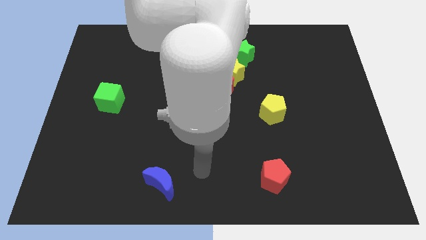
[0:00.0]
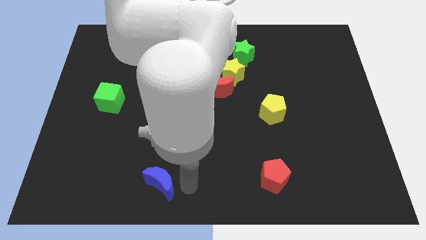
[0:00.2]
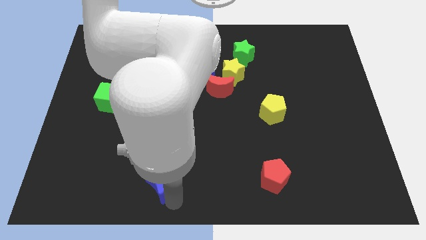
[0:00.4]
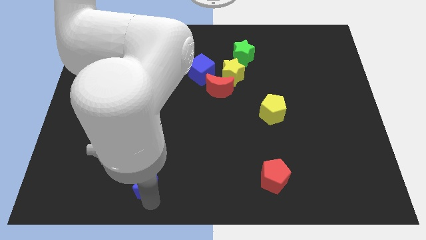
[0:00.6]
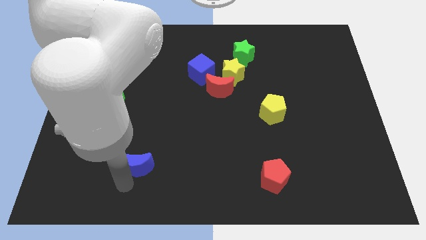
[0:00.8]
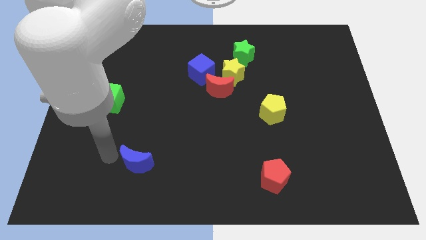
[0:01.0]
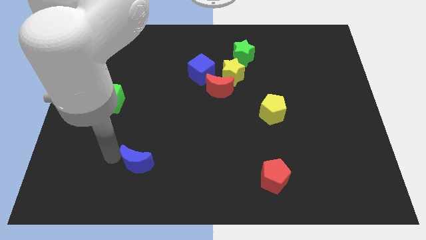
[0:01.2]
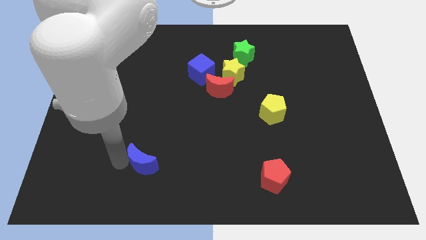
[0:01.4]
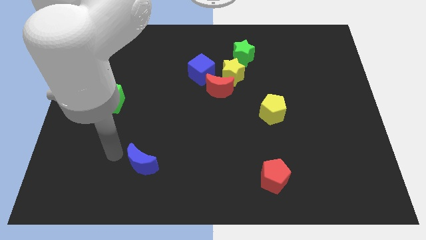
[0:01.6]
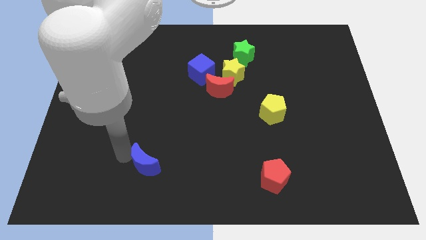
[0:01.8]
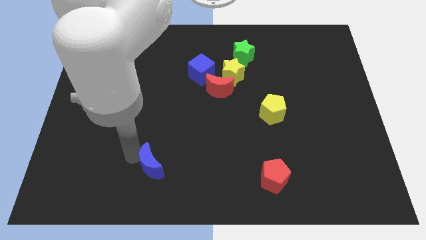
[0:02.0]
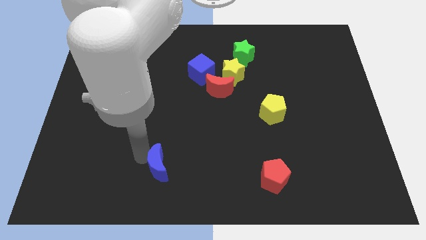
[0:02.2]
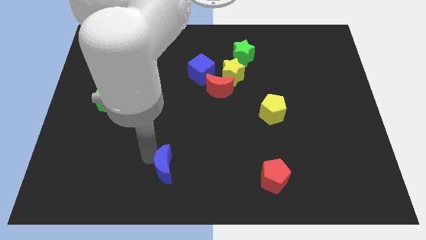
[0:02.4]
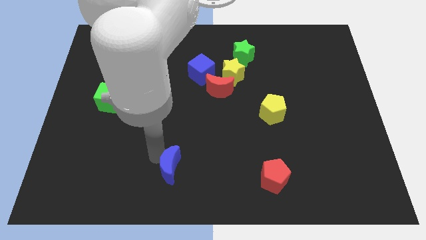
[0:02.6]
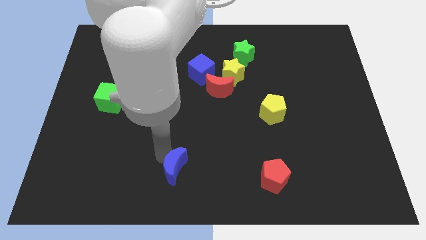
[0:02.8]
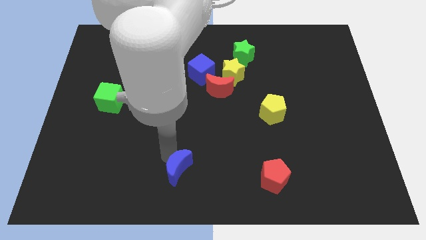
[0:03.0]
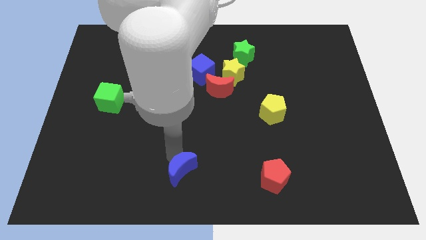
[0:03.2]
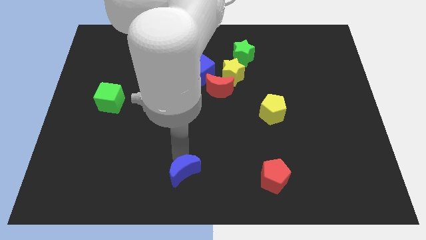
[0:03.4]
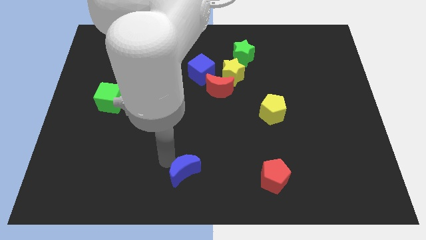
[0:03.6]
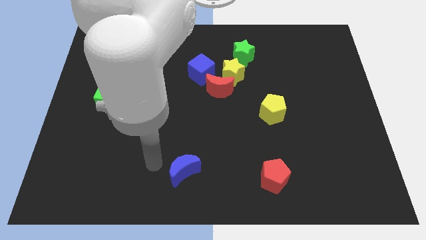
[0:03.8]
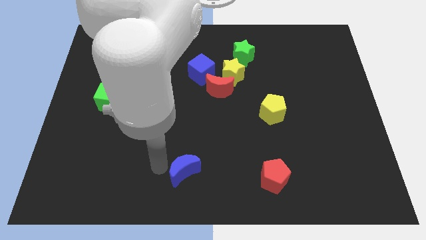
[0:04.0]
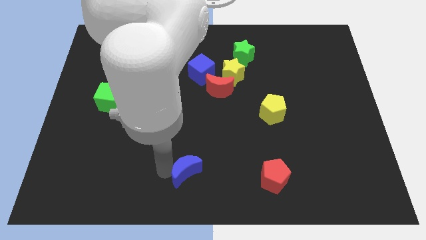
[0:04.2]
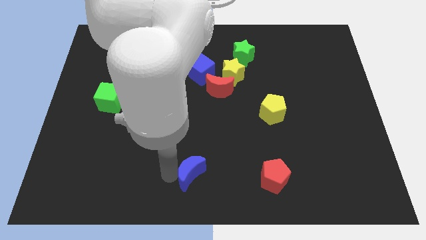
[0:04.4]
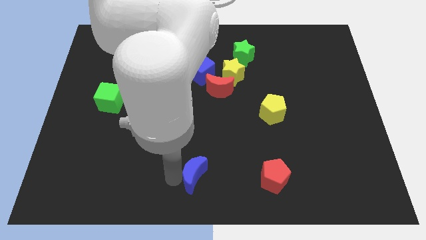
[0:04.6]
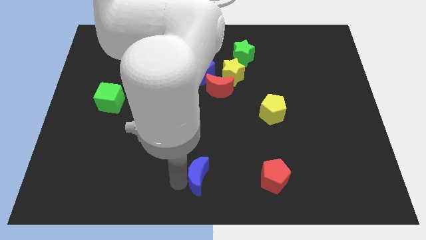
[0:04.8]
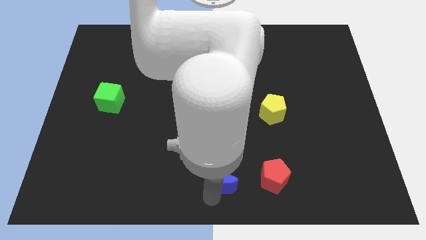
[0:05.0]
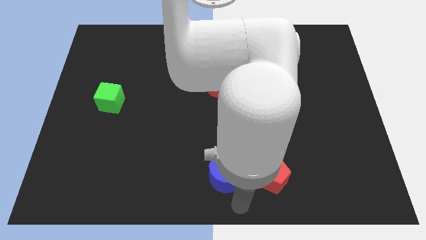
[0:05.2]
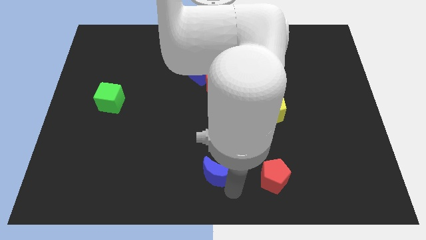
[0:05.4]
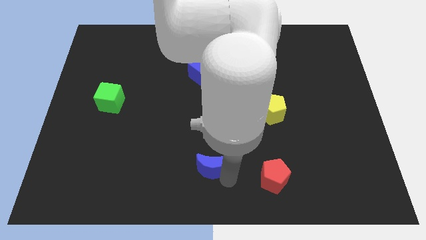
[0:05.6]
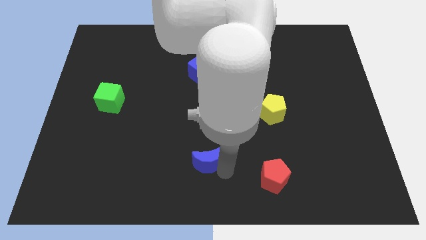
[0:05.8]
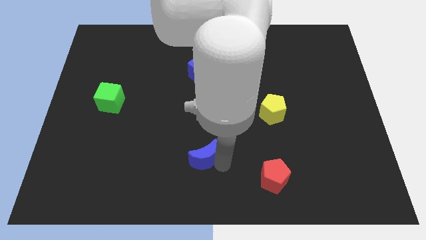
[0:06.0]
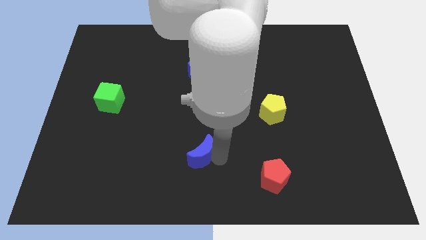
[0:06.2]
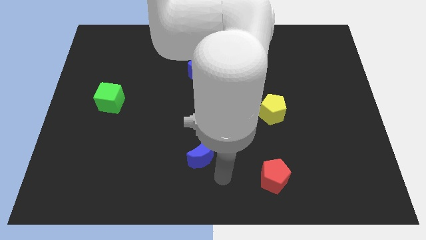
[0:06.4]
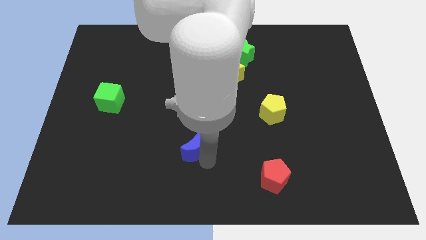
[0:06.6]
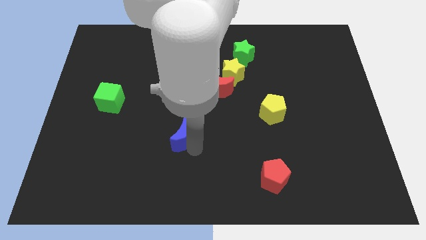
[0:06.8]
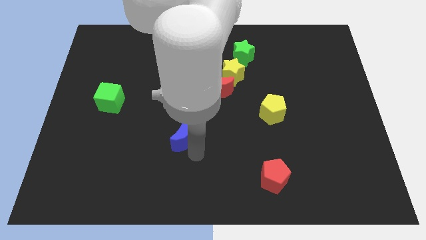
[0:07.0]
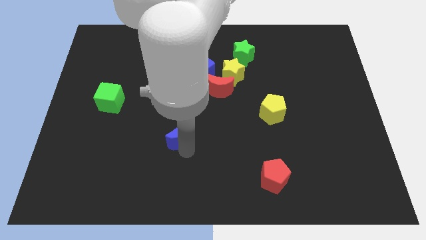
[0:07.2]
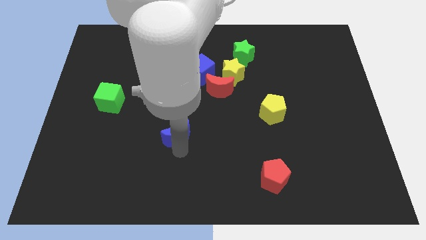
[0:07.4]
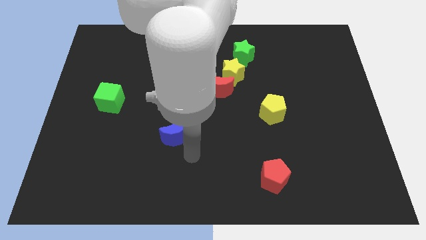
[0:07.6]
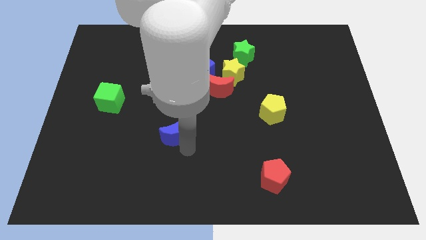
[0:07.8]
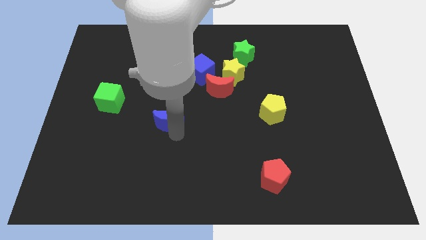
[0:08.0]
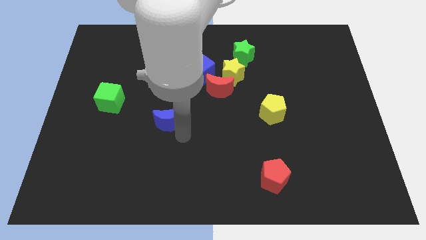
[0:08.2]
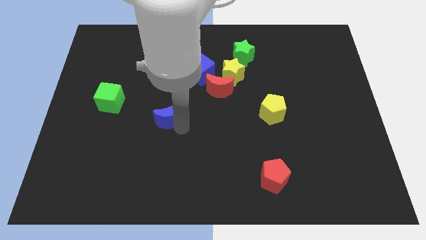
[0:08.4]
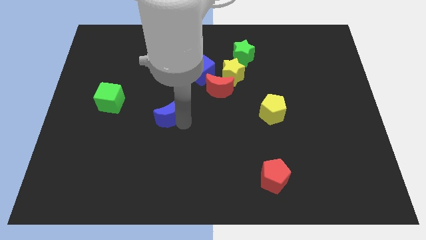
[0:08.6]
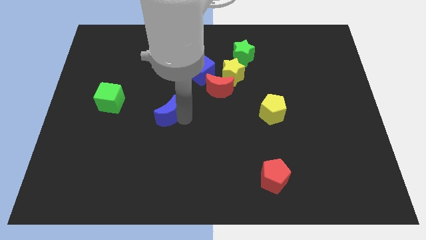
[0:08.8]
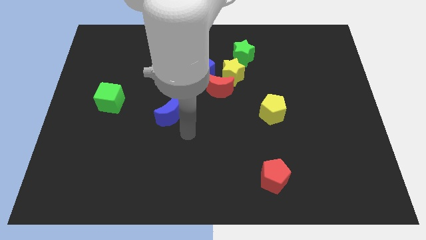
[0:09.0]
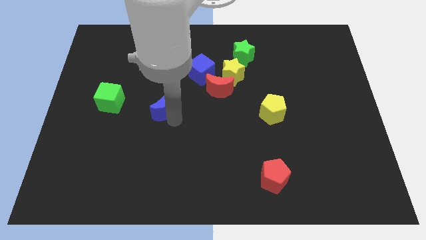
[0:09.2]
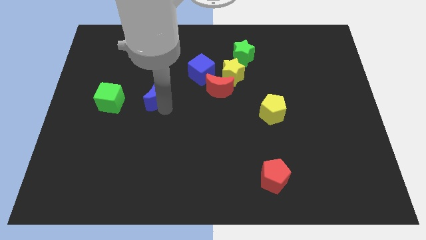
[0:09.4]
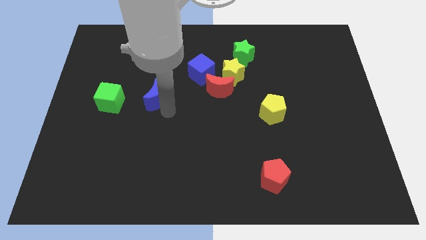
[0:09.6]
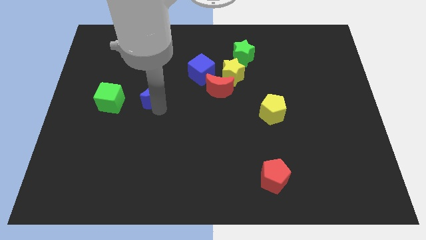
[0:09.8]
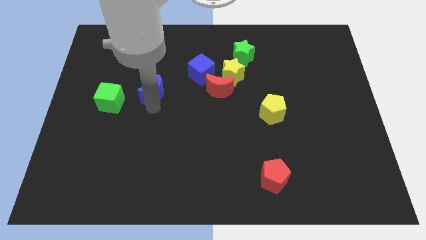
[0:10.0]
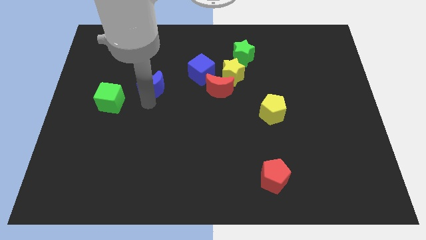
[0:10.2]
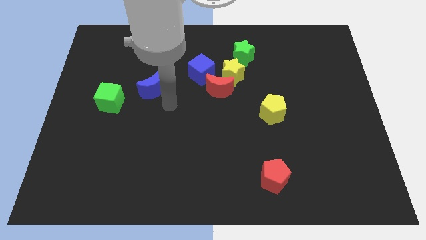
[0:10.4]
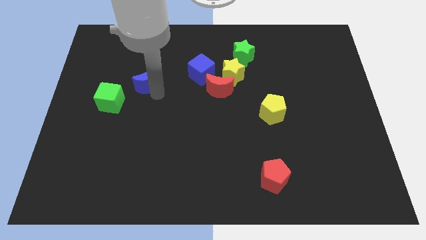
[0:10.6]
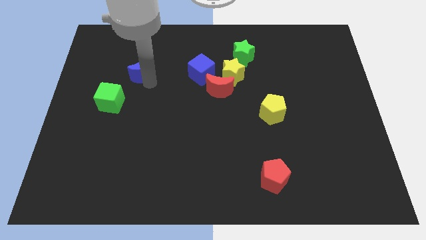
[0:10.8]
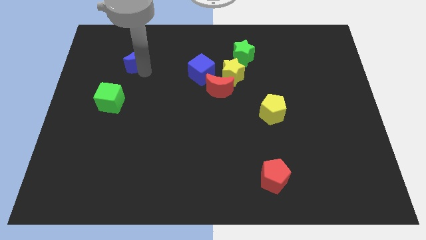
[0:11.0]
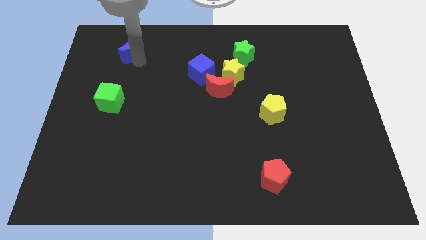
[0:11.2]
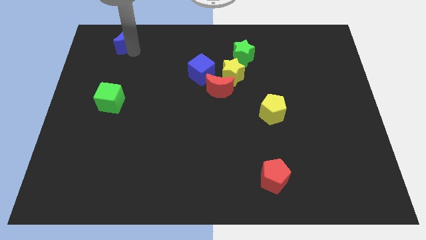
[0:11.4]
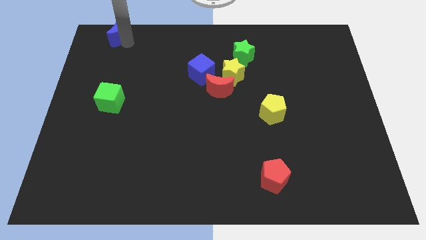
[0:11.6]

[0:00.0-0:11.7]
move the blue moon to the top left of the board

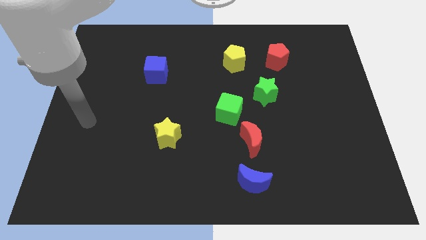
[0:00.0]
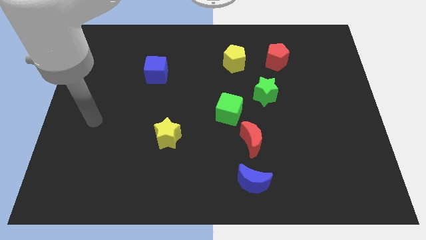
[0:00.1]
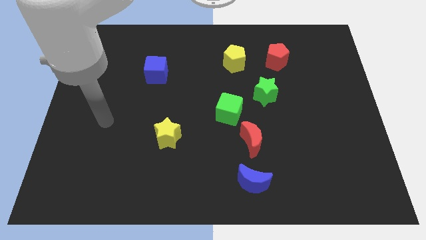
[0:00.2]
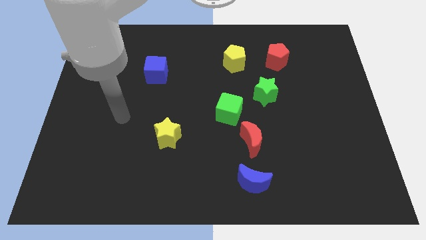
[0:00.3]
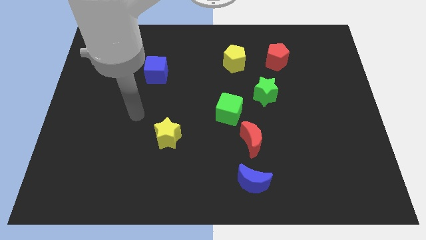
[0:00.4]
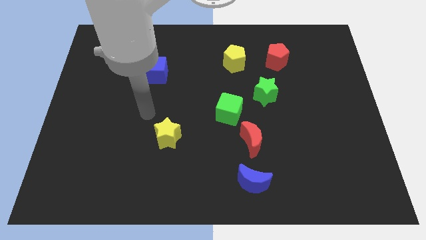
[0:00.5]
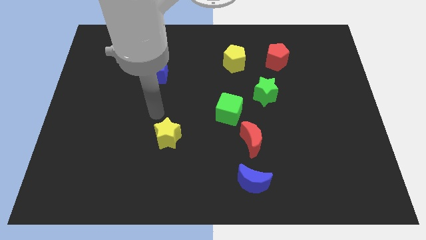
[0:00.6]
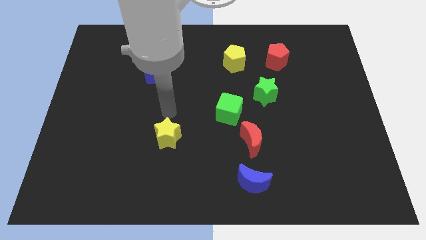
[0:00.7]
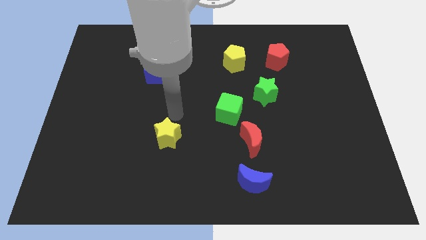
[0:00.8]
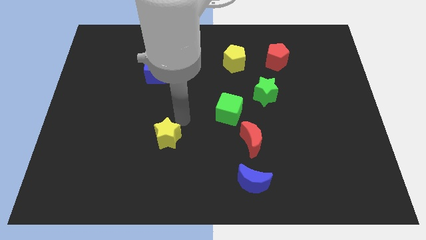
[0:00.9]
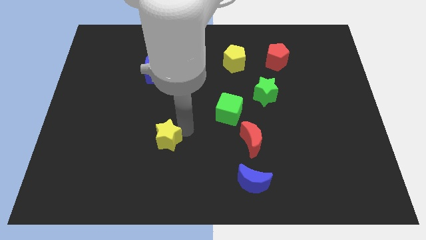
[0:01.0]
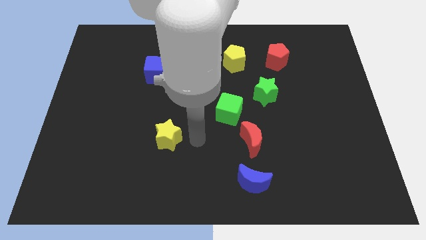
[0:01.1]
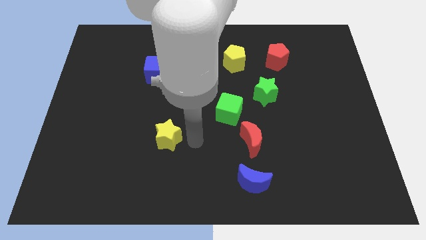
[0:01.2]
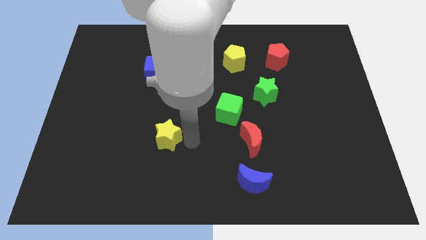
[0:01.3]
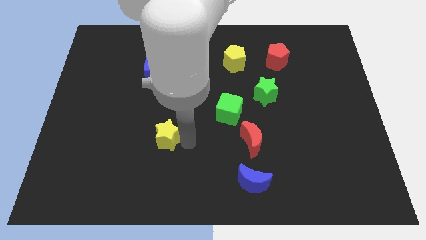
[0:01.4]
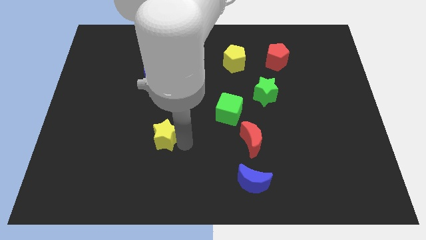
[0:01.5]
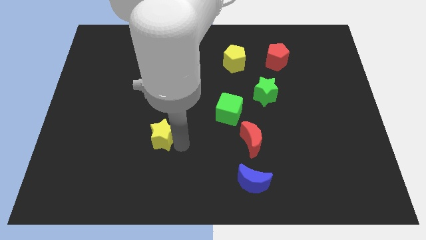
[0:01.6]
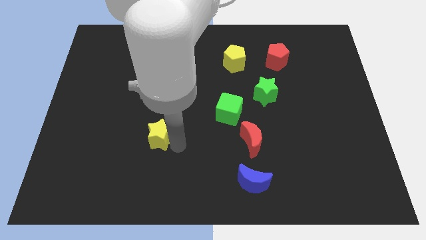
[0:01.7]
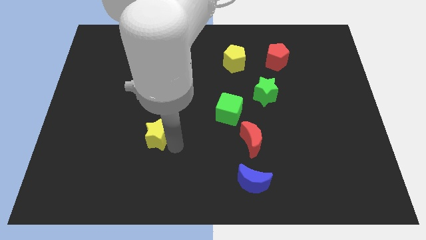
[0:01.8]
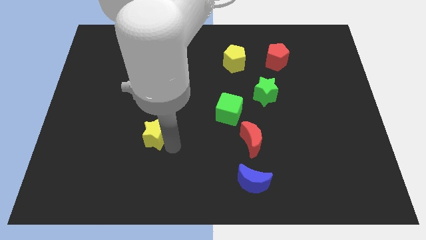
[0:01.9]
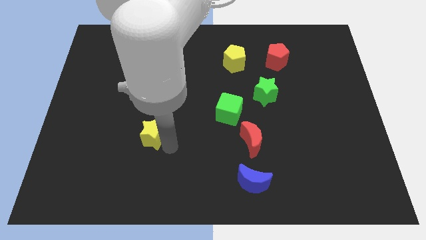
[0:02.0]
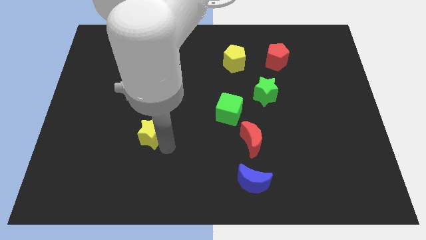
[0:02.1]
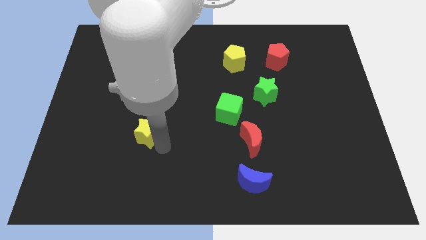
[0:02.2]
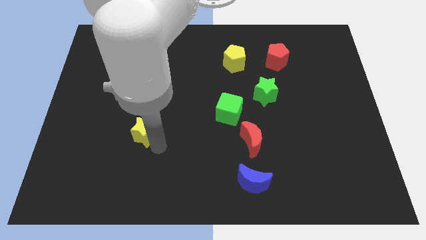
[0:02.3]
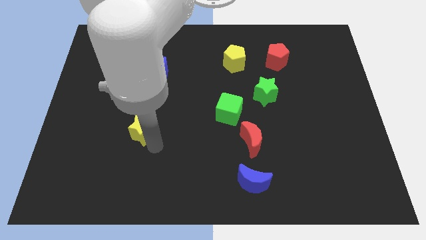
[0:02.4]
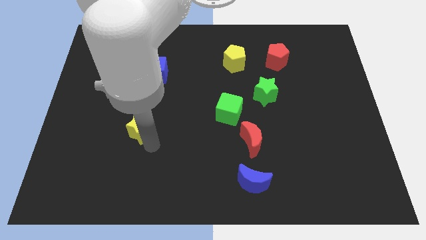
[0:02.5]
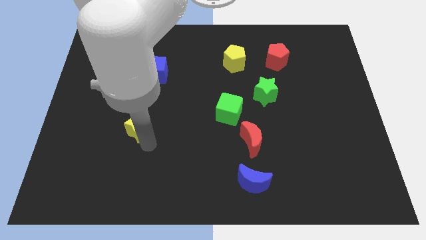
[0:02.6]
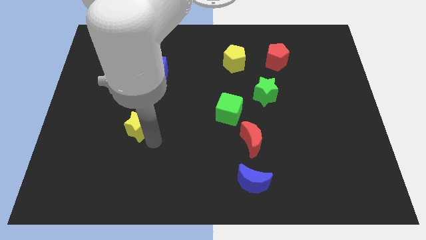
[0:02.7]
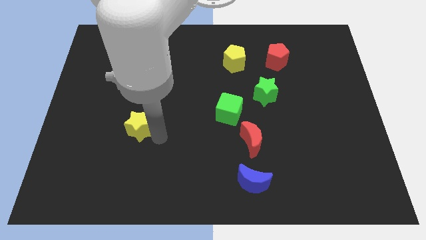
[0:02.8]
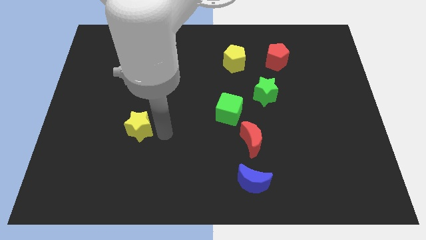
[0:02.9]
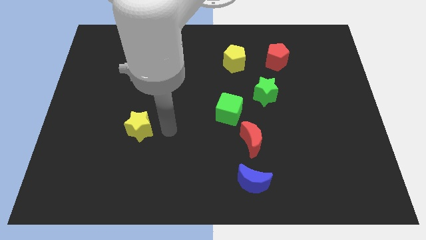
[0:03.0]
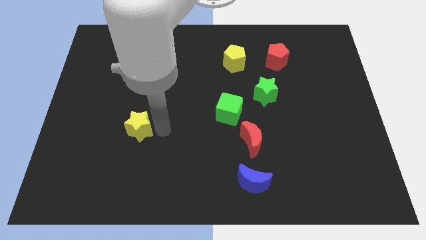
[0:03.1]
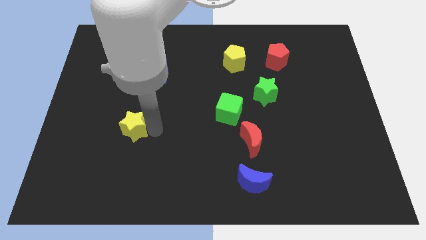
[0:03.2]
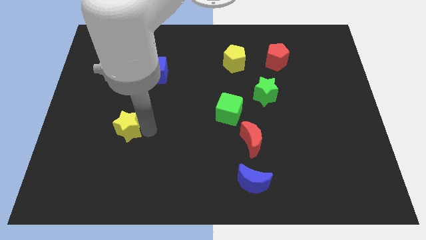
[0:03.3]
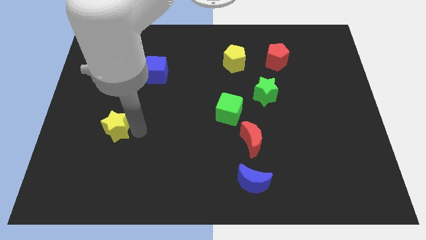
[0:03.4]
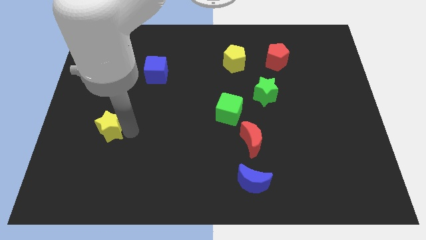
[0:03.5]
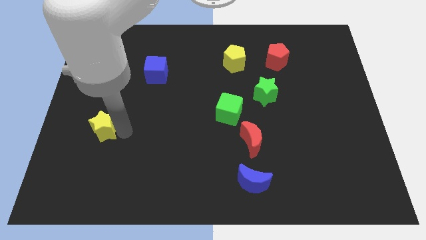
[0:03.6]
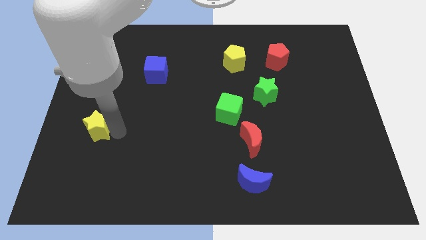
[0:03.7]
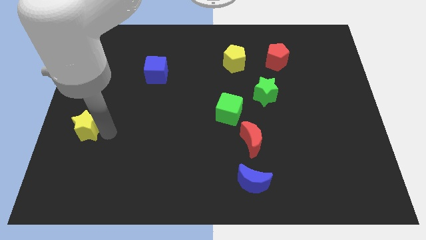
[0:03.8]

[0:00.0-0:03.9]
put the yellow star to the left side of the board
